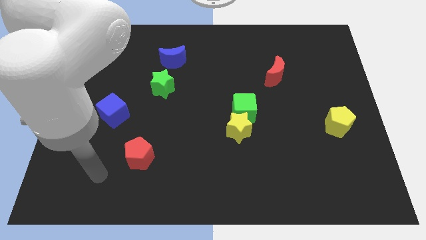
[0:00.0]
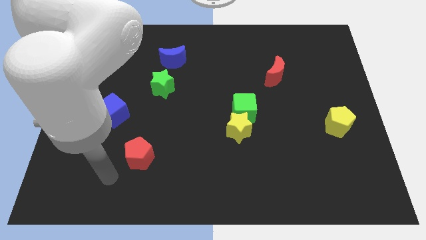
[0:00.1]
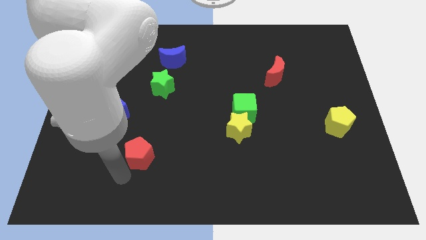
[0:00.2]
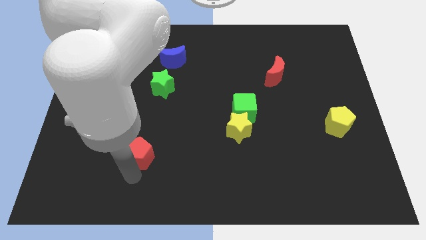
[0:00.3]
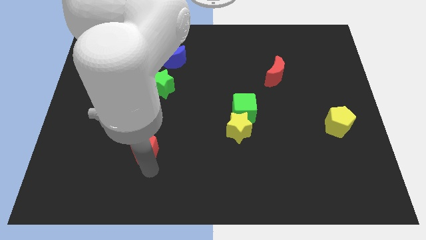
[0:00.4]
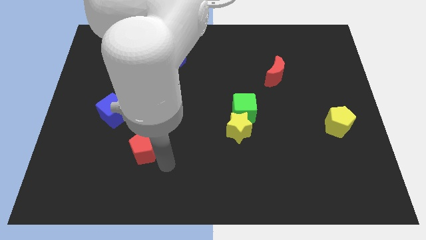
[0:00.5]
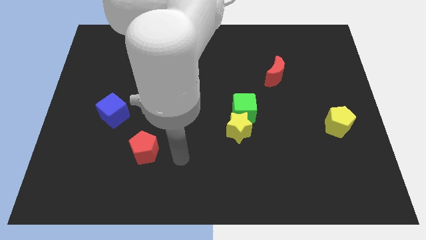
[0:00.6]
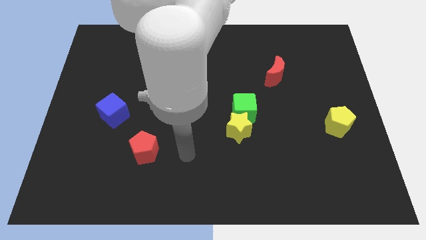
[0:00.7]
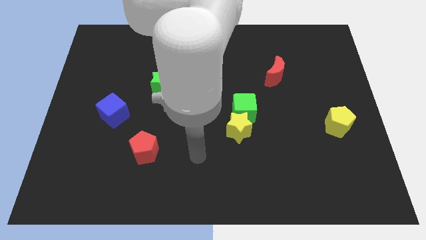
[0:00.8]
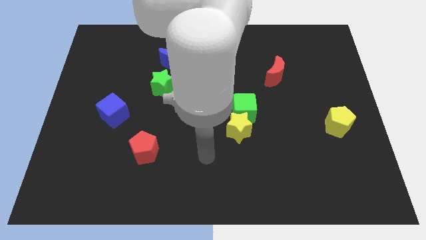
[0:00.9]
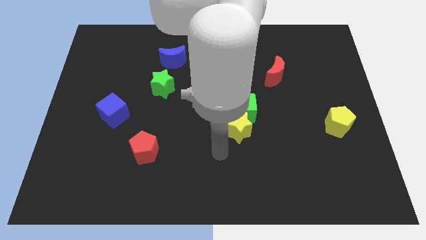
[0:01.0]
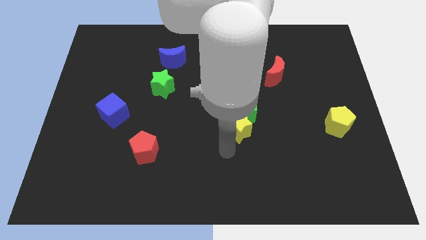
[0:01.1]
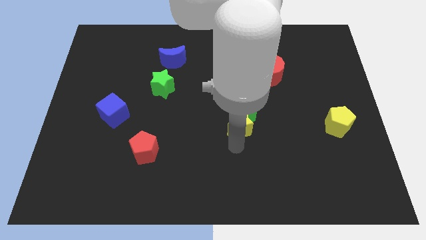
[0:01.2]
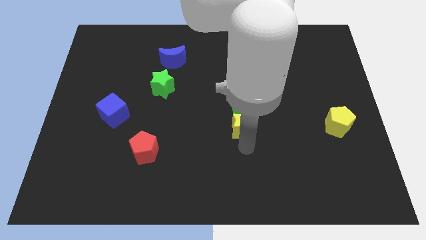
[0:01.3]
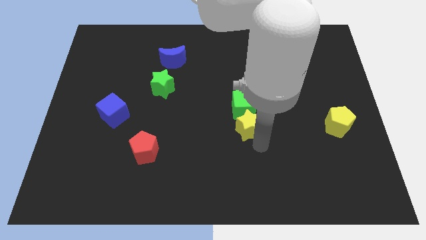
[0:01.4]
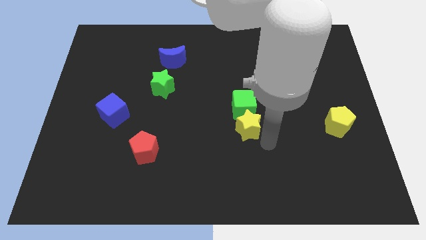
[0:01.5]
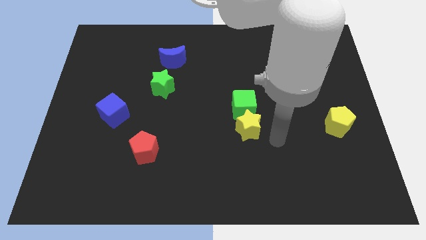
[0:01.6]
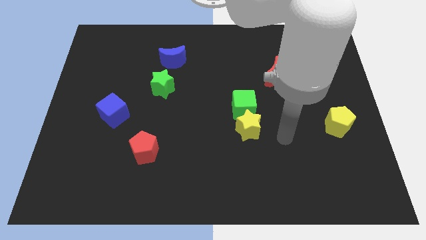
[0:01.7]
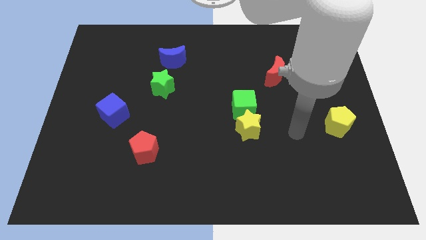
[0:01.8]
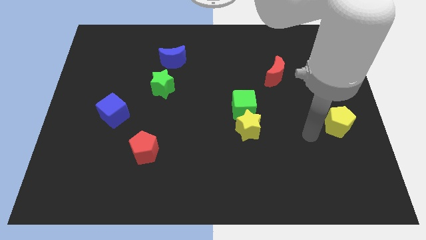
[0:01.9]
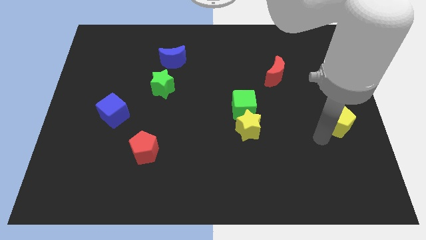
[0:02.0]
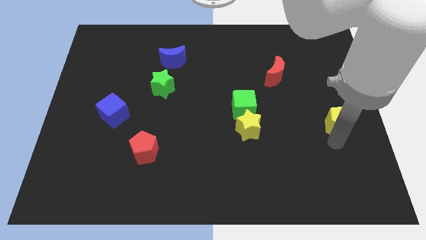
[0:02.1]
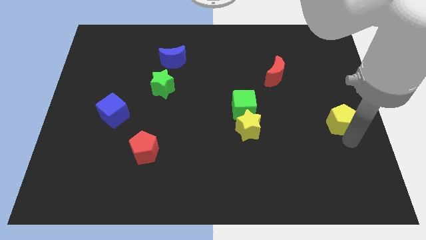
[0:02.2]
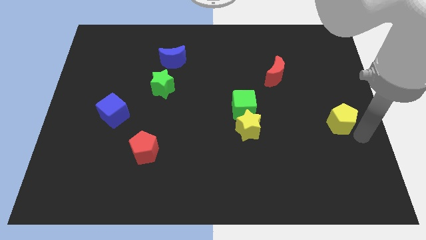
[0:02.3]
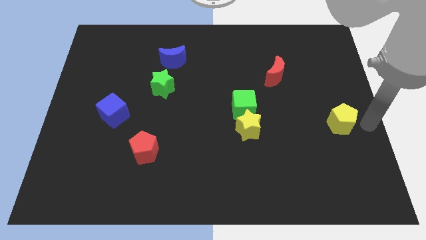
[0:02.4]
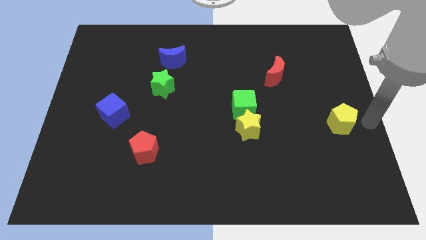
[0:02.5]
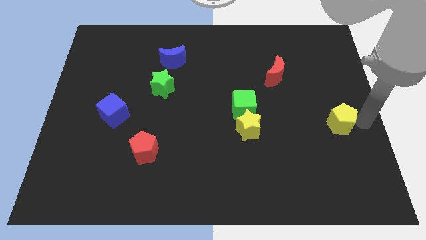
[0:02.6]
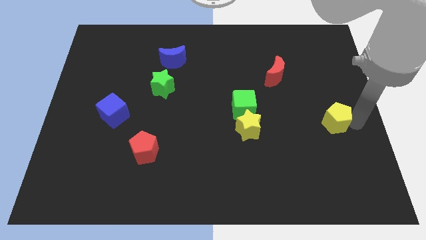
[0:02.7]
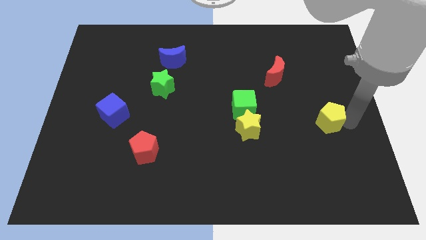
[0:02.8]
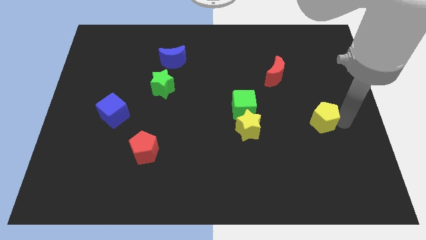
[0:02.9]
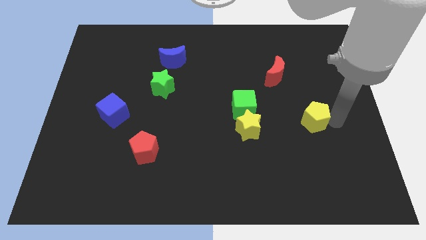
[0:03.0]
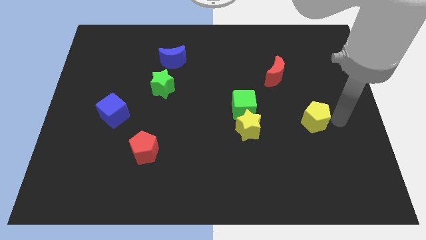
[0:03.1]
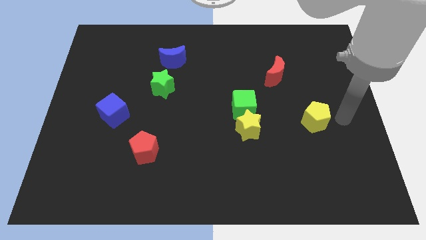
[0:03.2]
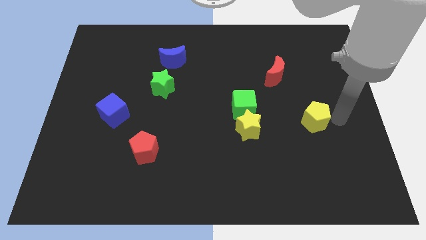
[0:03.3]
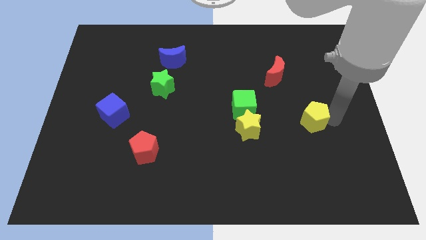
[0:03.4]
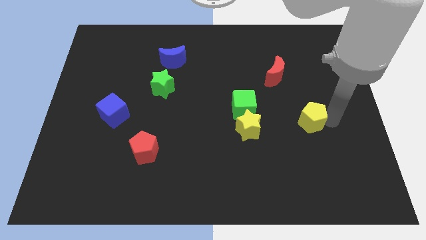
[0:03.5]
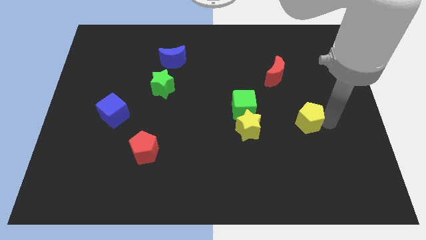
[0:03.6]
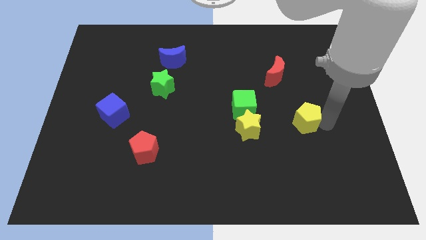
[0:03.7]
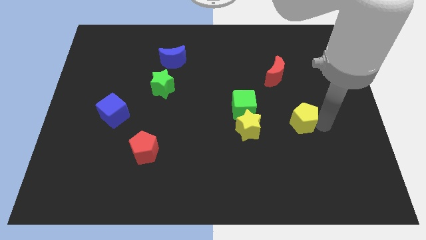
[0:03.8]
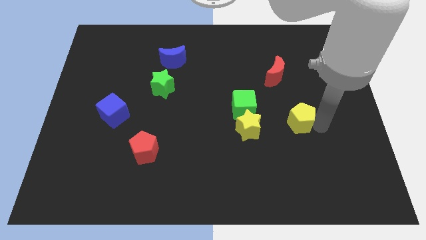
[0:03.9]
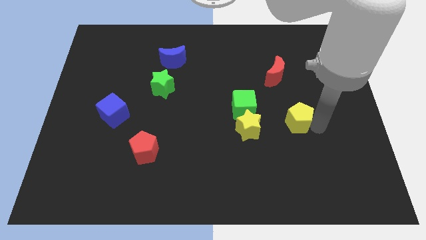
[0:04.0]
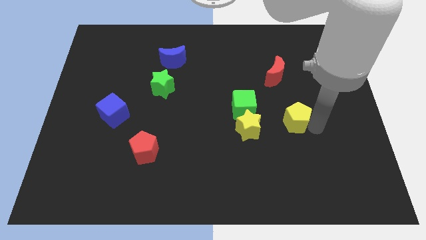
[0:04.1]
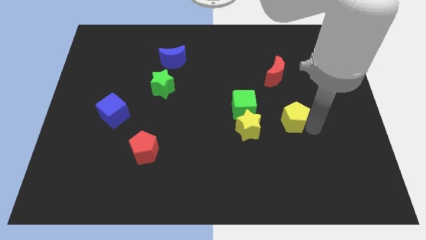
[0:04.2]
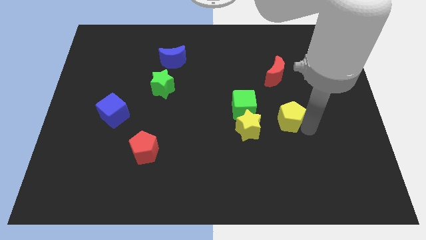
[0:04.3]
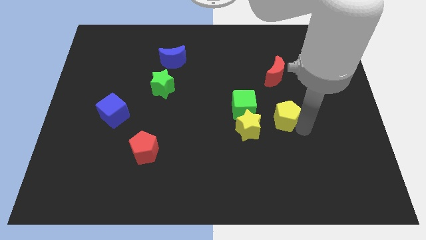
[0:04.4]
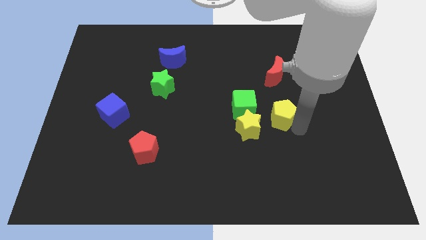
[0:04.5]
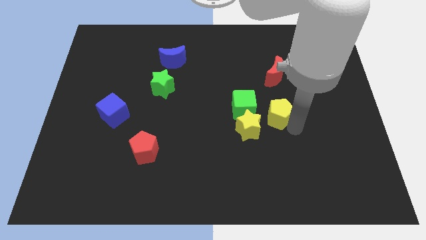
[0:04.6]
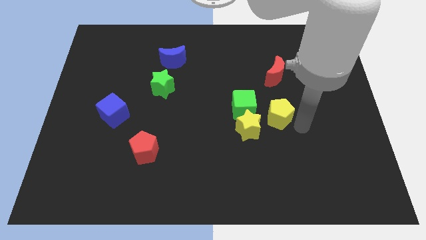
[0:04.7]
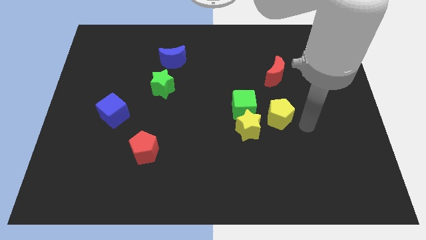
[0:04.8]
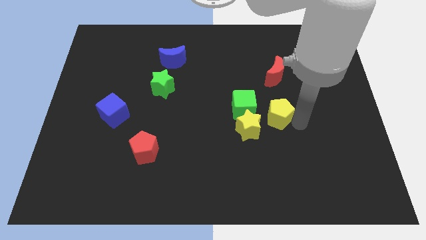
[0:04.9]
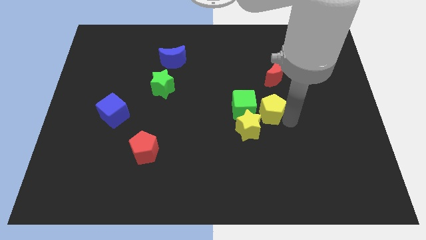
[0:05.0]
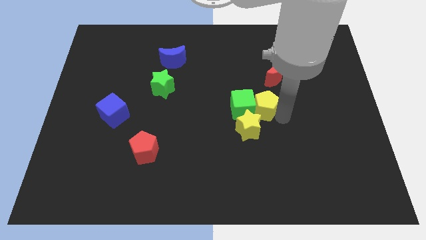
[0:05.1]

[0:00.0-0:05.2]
put the yellow pentagon next to the green cube

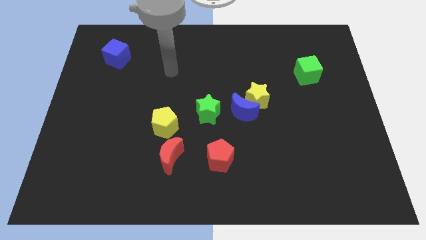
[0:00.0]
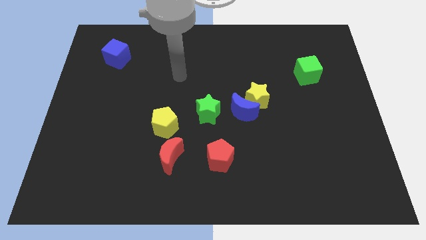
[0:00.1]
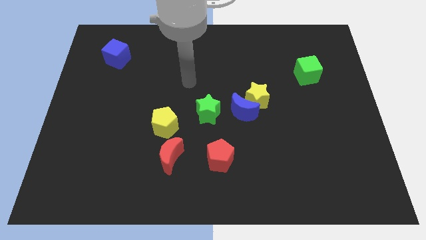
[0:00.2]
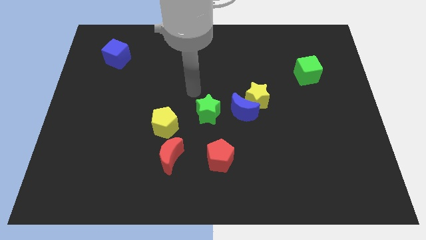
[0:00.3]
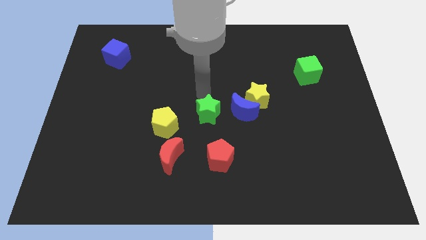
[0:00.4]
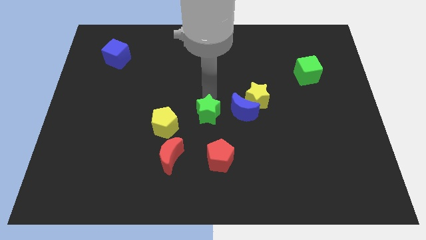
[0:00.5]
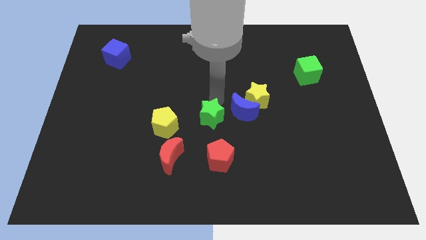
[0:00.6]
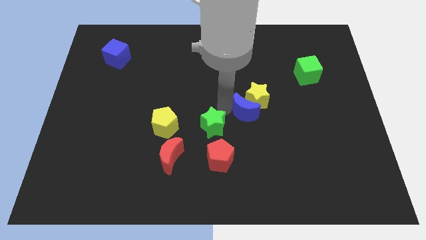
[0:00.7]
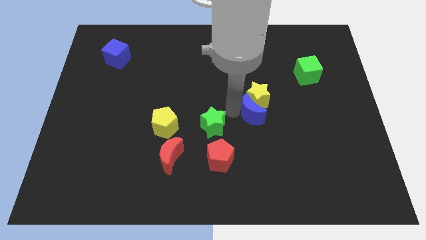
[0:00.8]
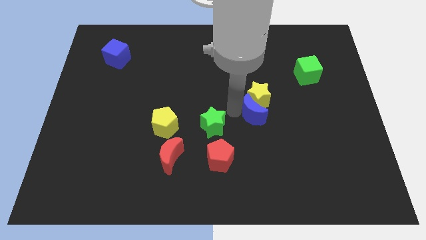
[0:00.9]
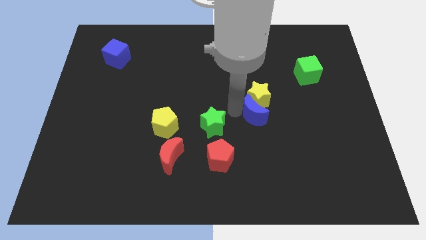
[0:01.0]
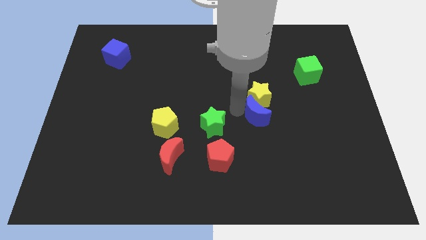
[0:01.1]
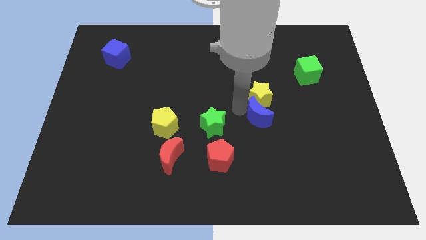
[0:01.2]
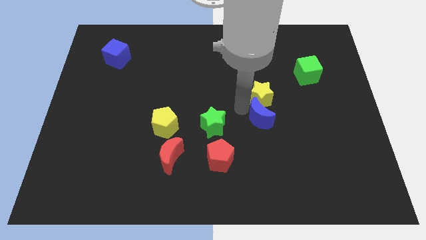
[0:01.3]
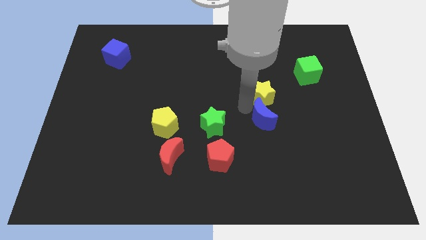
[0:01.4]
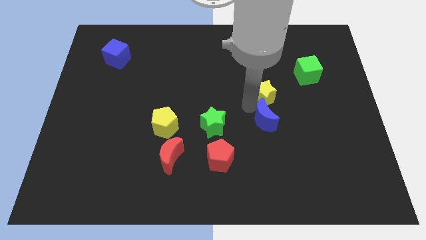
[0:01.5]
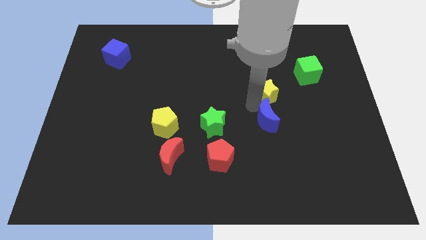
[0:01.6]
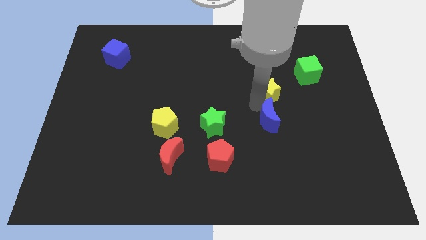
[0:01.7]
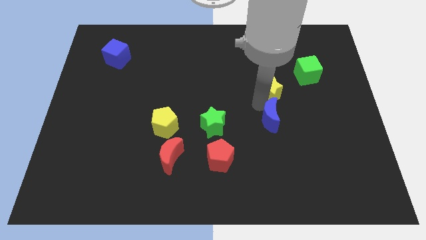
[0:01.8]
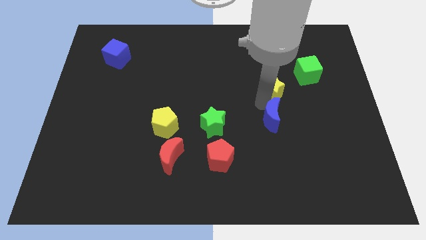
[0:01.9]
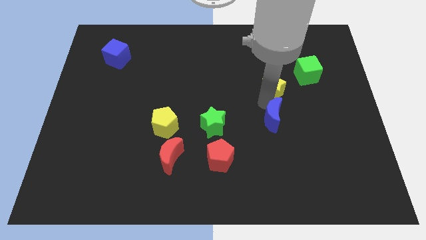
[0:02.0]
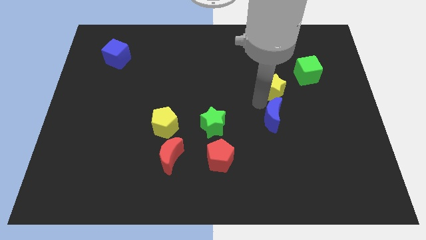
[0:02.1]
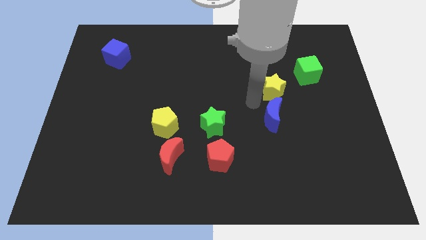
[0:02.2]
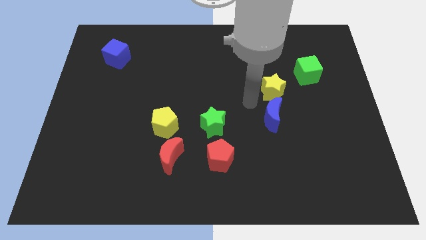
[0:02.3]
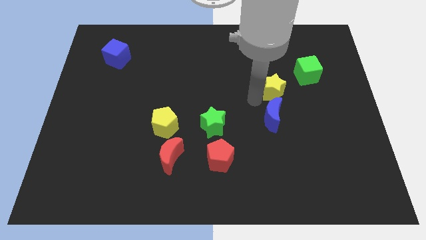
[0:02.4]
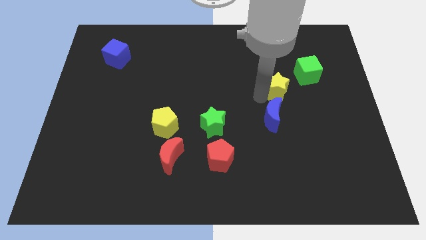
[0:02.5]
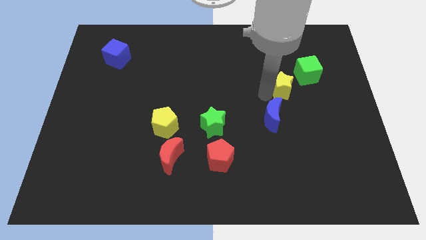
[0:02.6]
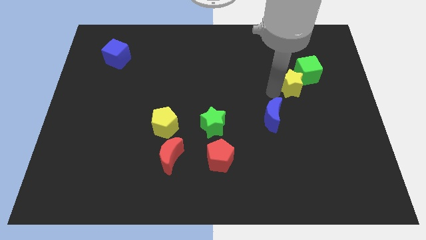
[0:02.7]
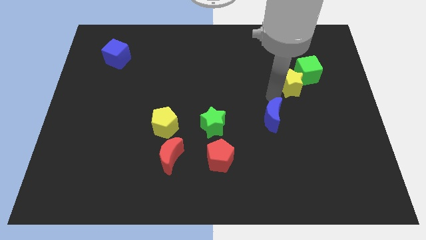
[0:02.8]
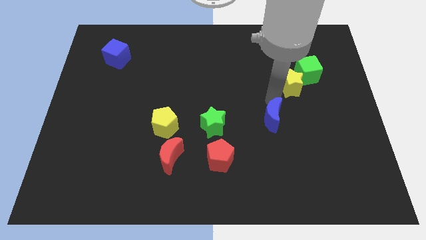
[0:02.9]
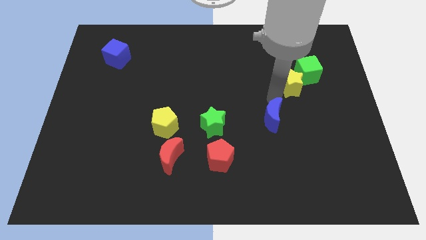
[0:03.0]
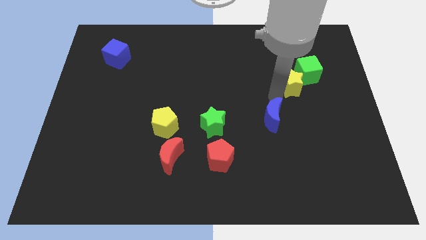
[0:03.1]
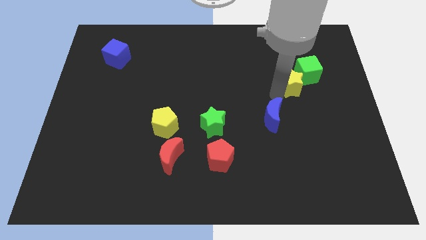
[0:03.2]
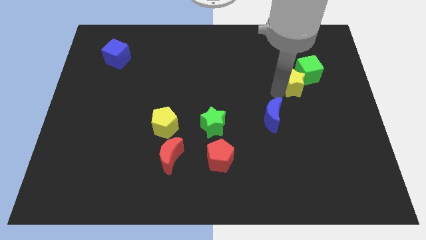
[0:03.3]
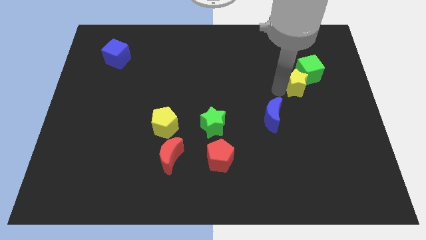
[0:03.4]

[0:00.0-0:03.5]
move the yellow star to the green cube
